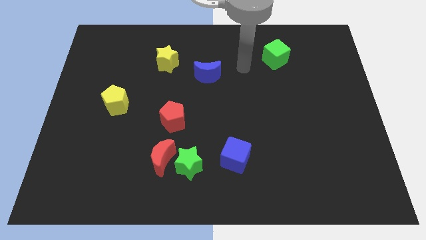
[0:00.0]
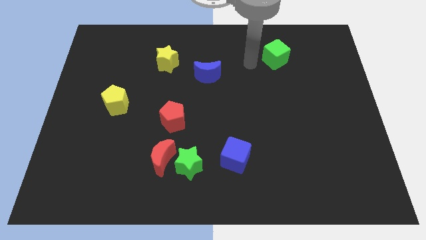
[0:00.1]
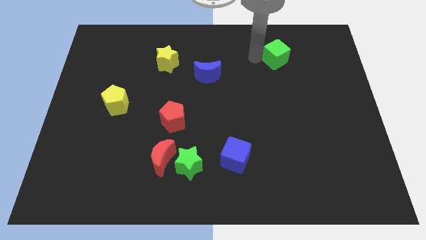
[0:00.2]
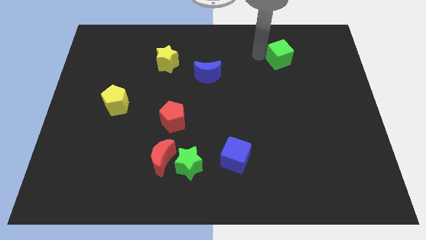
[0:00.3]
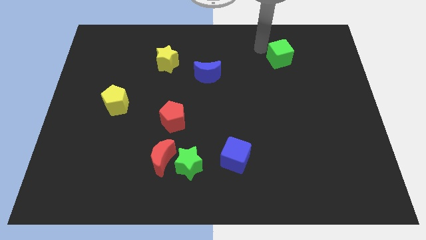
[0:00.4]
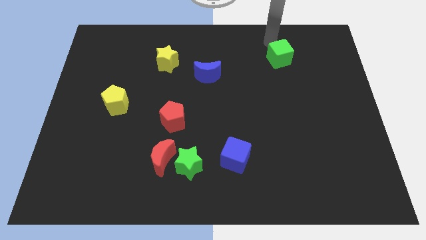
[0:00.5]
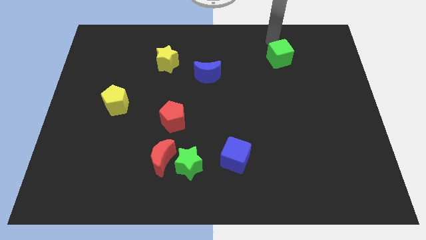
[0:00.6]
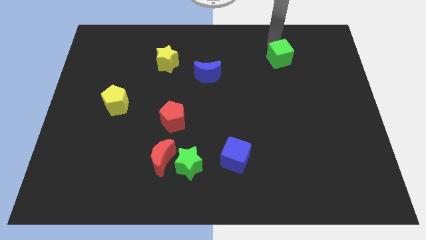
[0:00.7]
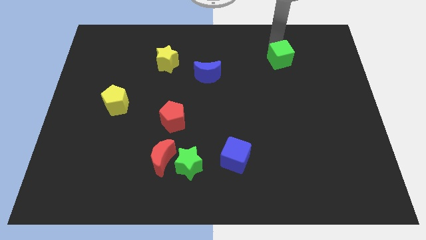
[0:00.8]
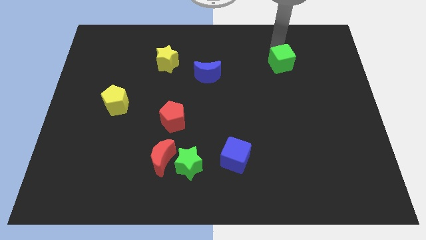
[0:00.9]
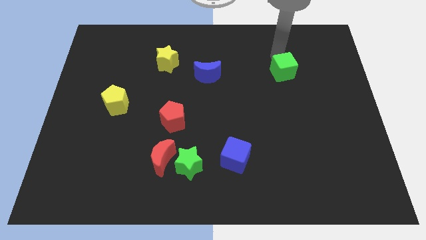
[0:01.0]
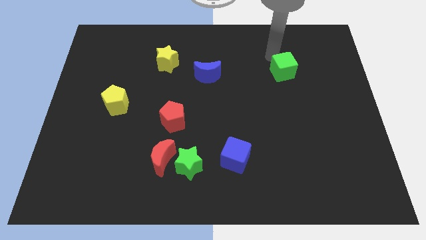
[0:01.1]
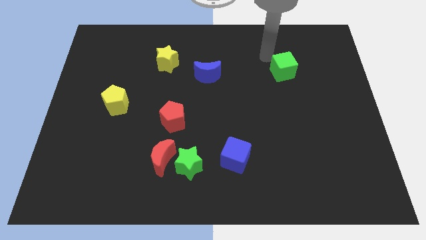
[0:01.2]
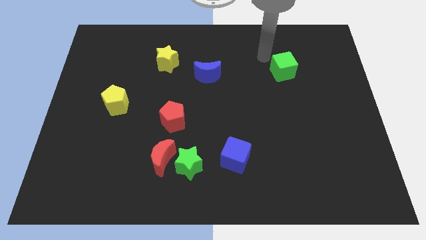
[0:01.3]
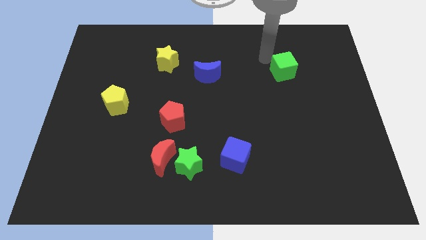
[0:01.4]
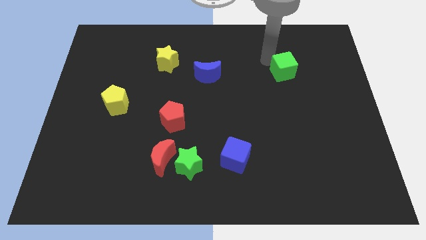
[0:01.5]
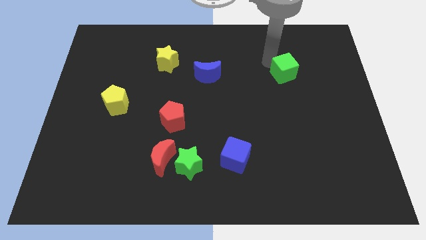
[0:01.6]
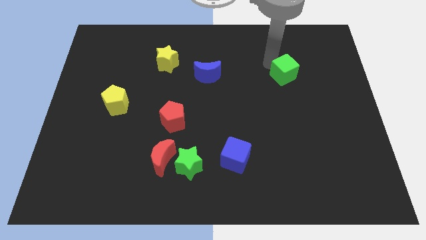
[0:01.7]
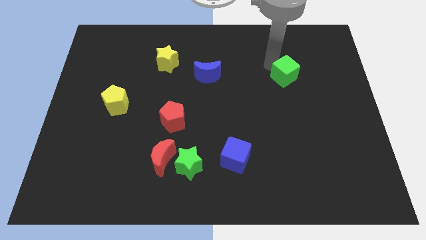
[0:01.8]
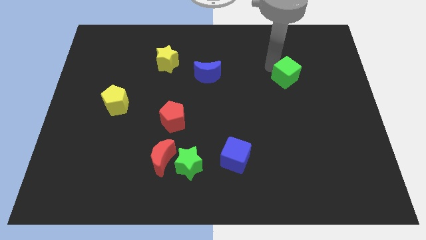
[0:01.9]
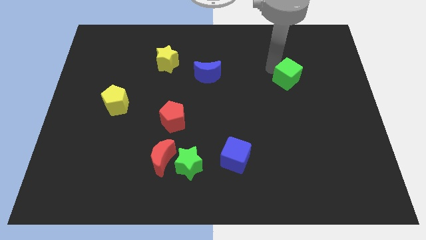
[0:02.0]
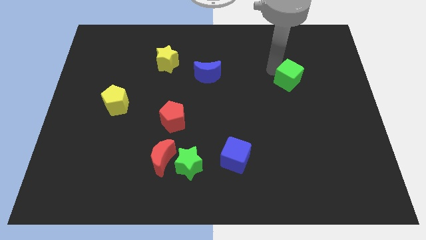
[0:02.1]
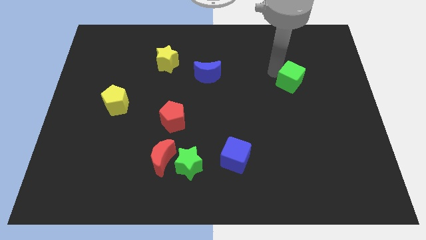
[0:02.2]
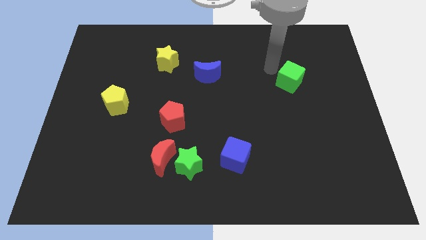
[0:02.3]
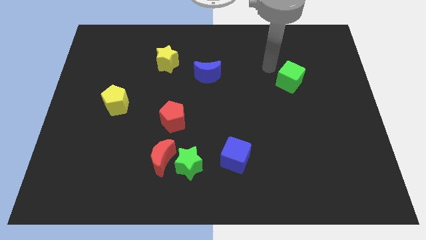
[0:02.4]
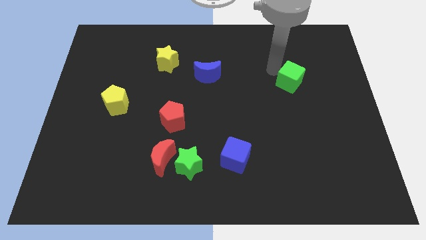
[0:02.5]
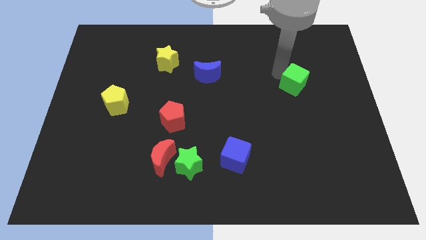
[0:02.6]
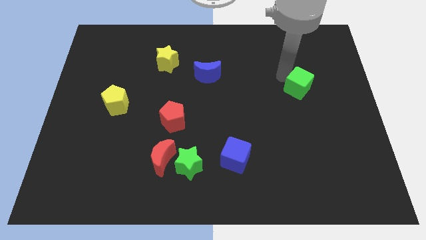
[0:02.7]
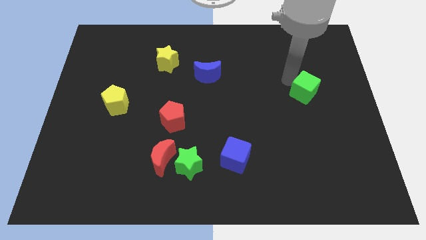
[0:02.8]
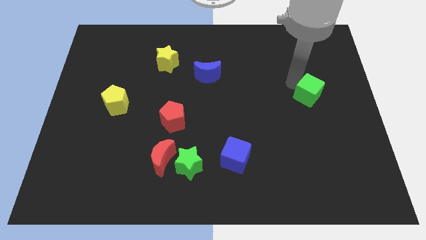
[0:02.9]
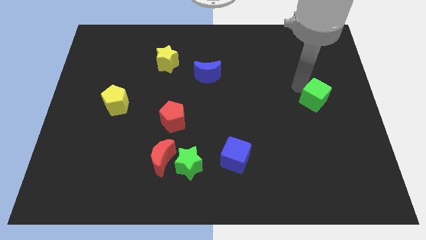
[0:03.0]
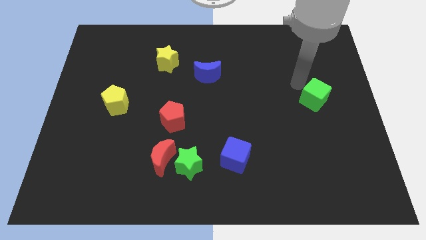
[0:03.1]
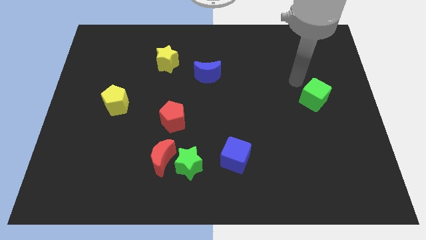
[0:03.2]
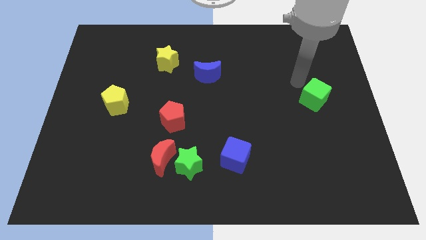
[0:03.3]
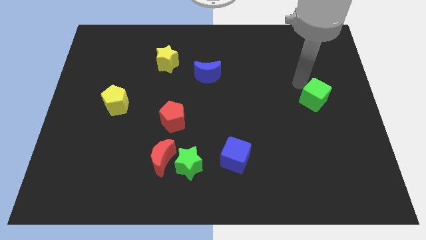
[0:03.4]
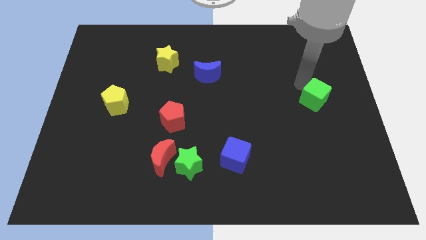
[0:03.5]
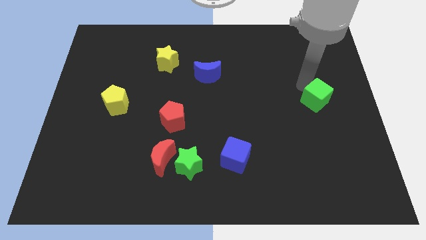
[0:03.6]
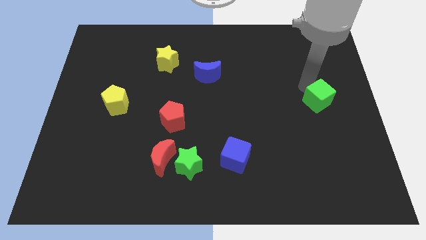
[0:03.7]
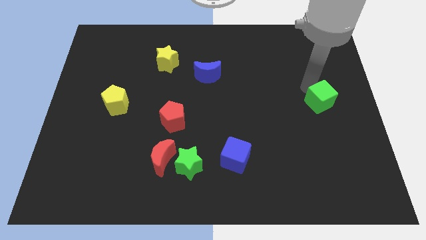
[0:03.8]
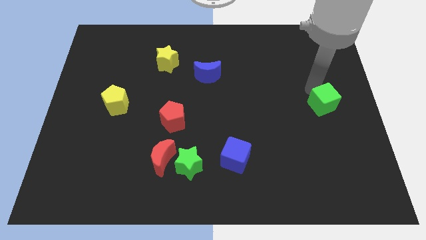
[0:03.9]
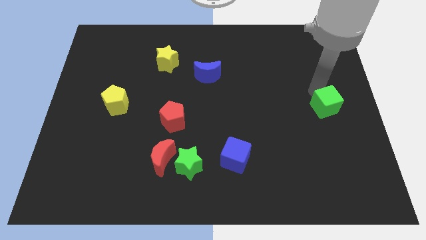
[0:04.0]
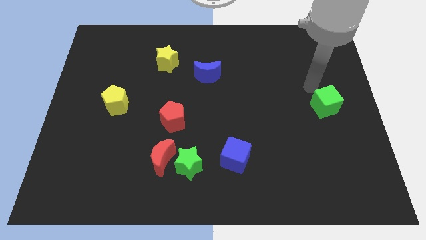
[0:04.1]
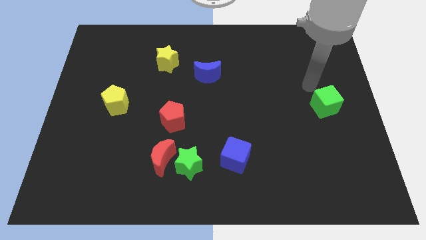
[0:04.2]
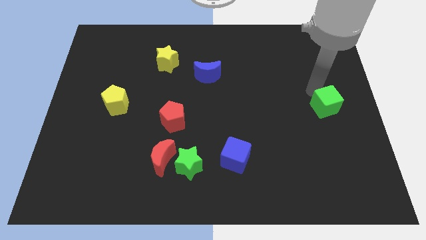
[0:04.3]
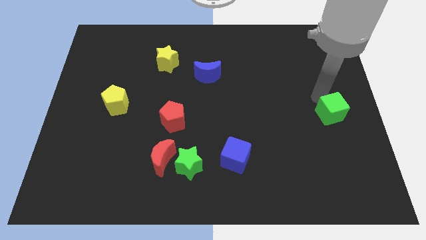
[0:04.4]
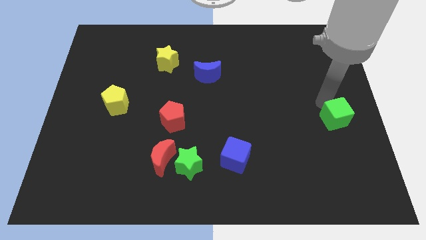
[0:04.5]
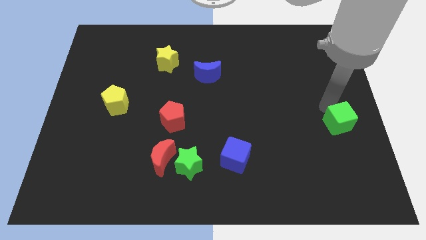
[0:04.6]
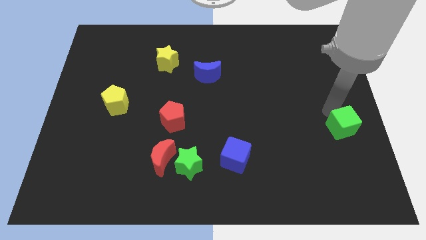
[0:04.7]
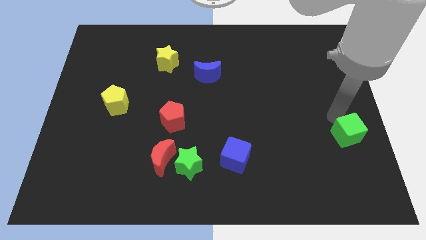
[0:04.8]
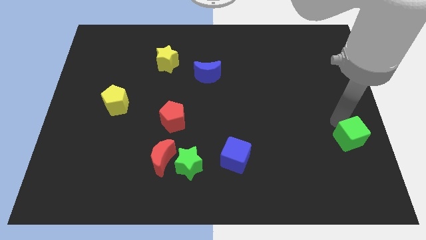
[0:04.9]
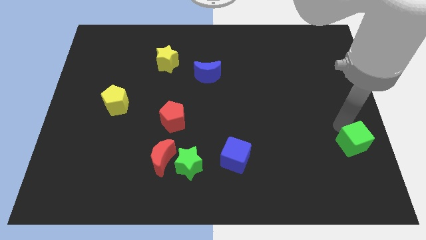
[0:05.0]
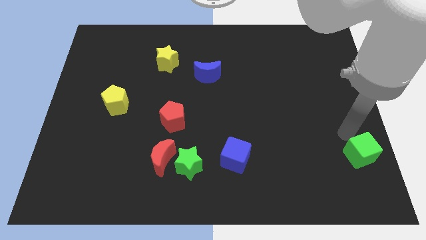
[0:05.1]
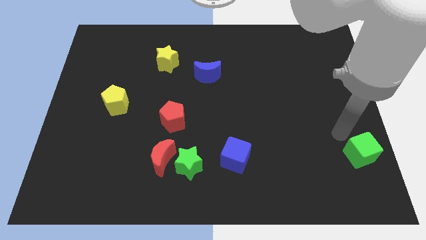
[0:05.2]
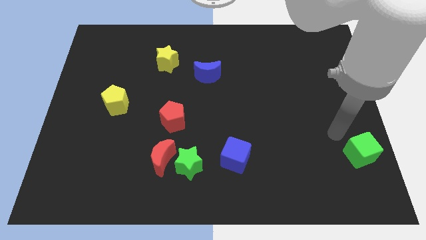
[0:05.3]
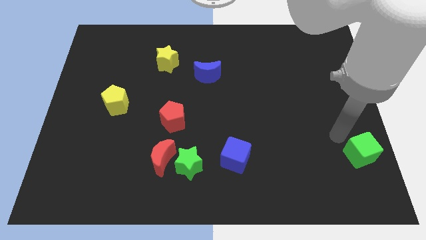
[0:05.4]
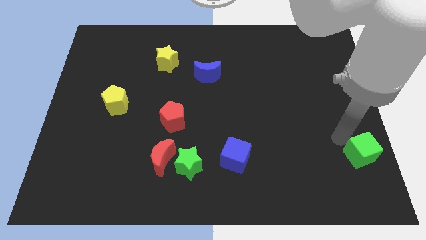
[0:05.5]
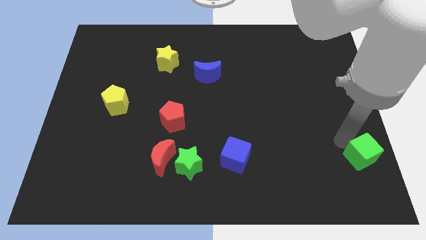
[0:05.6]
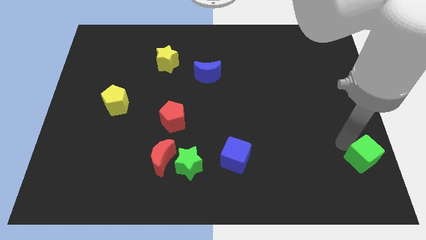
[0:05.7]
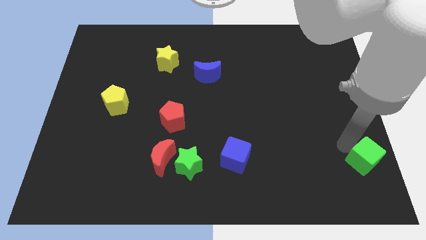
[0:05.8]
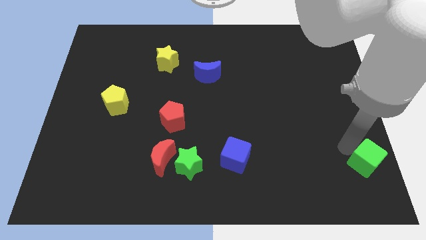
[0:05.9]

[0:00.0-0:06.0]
push the green cube to the bottom right

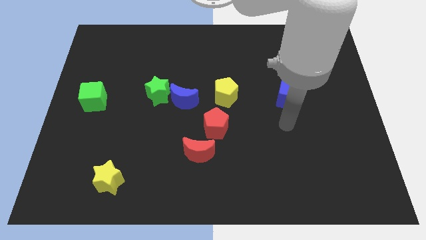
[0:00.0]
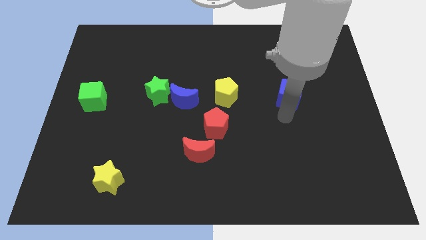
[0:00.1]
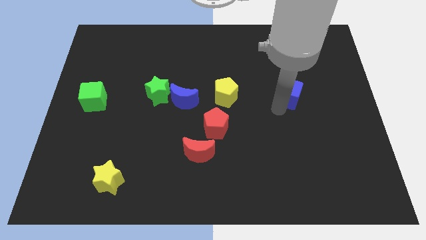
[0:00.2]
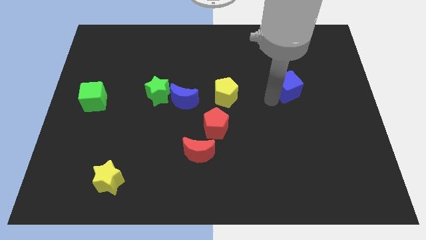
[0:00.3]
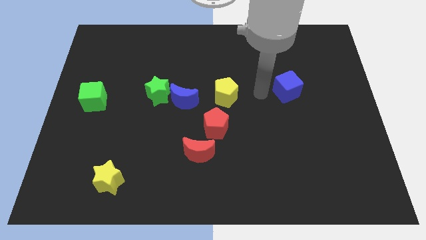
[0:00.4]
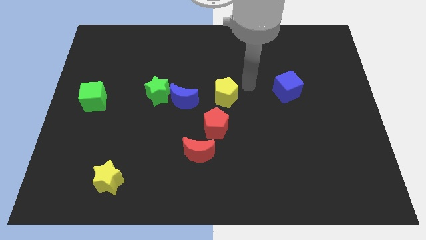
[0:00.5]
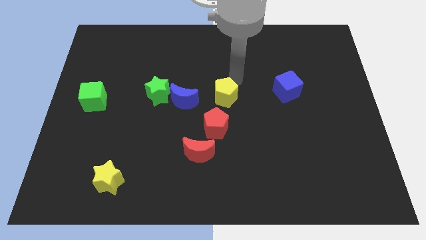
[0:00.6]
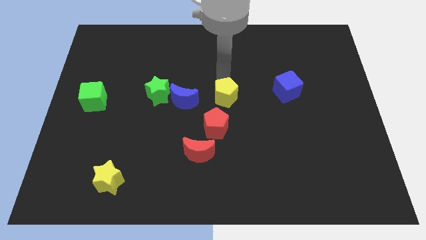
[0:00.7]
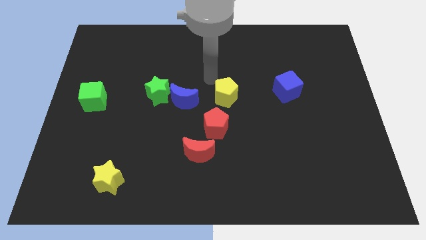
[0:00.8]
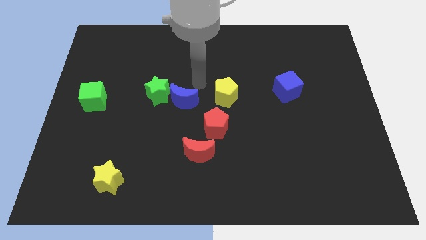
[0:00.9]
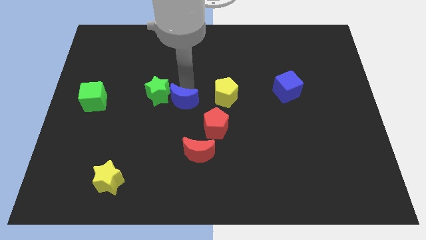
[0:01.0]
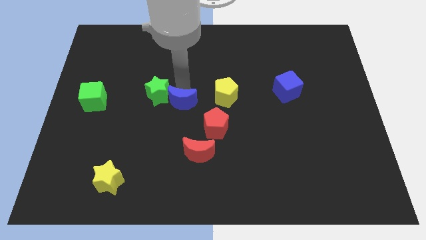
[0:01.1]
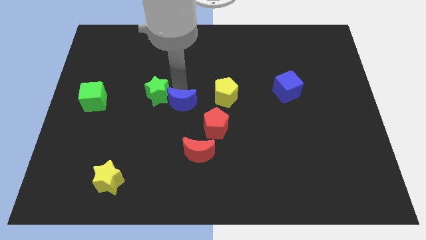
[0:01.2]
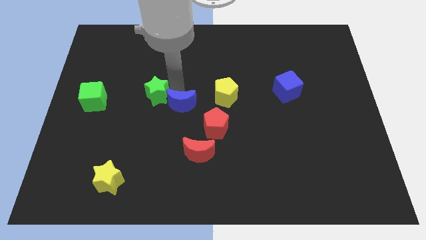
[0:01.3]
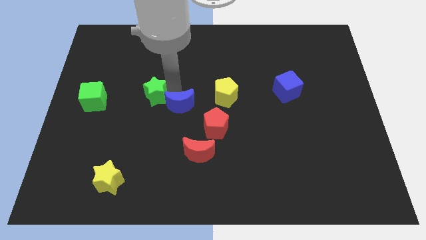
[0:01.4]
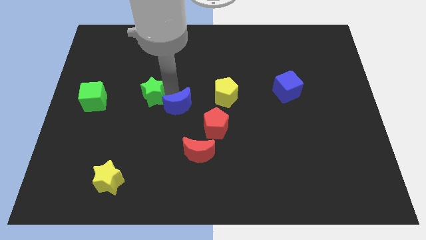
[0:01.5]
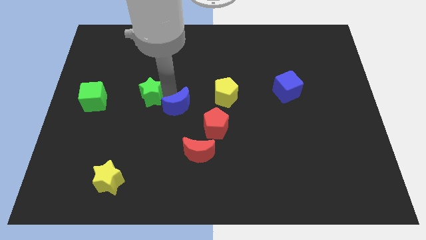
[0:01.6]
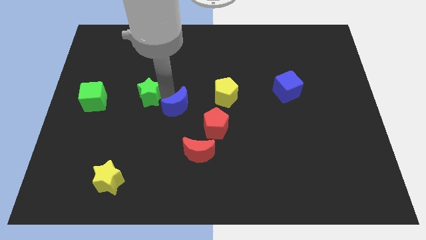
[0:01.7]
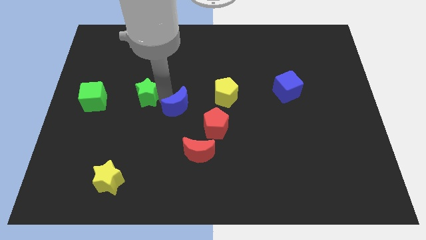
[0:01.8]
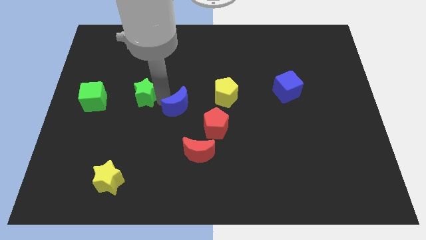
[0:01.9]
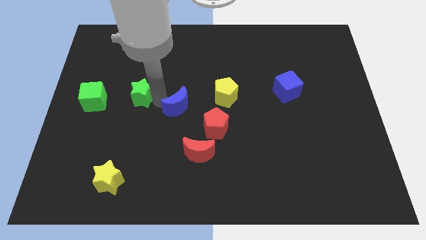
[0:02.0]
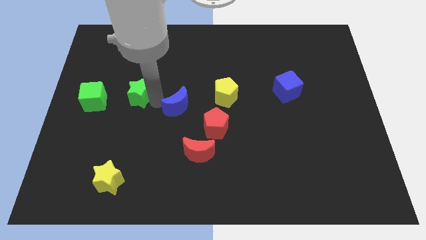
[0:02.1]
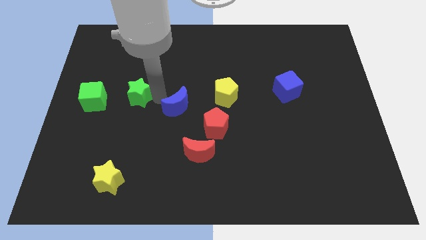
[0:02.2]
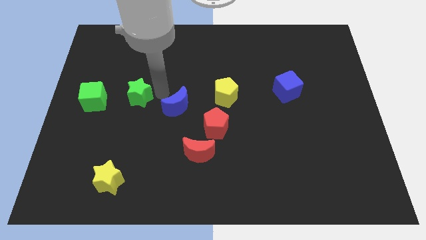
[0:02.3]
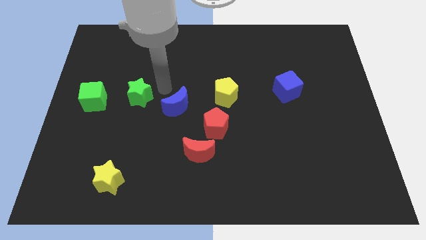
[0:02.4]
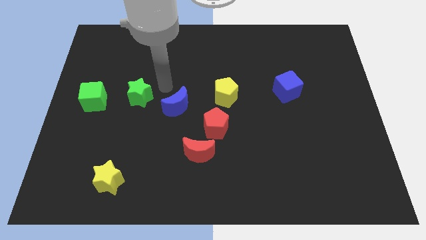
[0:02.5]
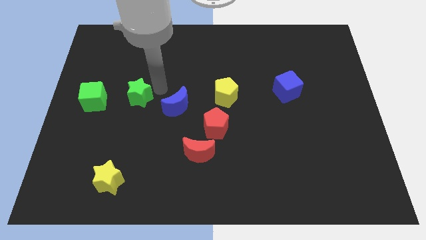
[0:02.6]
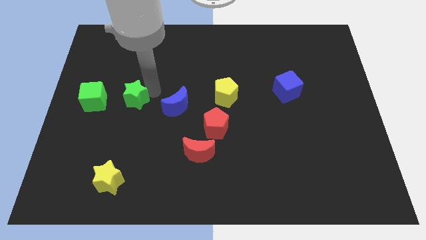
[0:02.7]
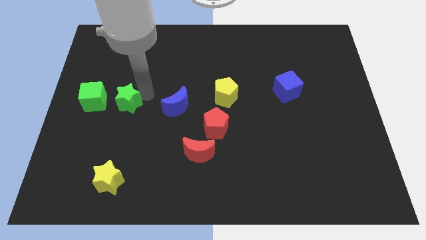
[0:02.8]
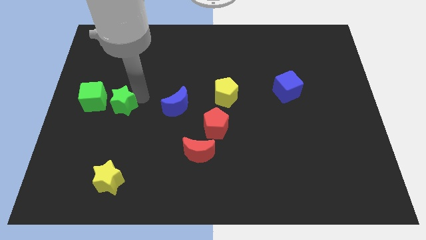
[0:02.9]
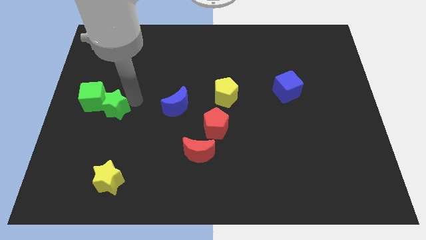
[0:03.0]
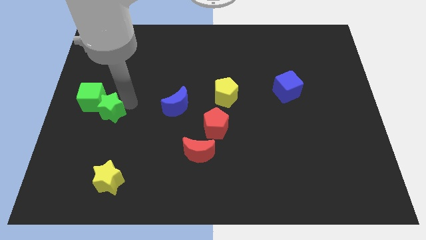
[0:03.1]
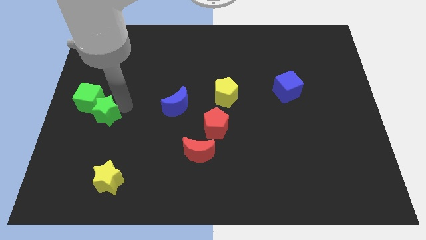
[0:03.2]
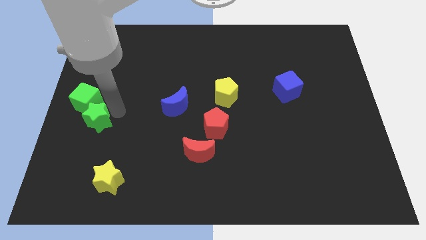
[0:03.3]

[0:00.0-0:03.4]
put the green star to the left side
